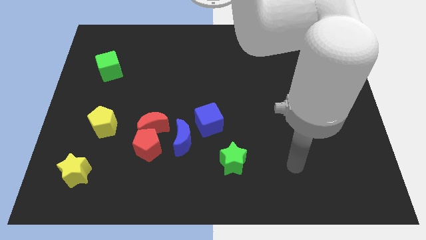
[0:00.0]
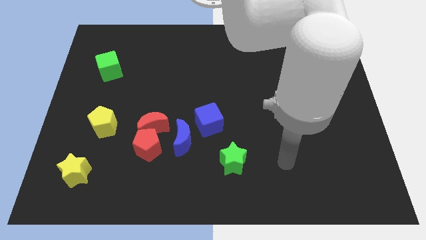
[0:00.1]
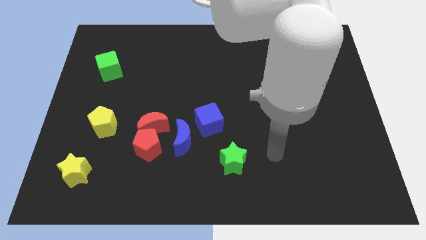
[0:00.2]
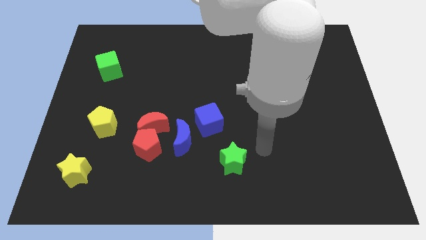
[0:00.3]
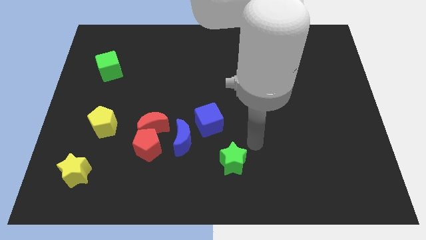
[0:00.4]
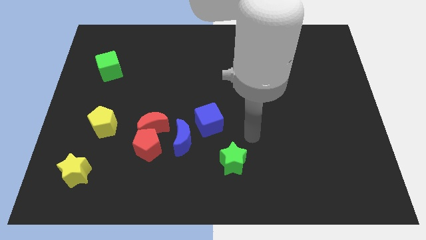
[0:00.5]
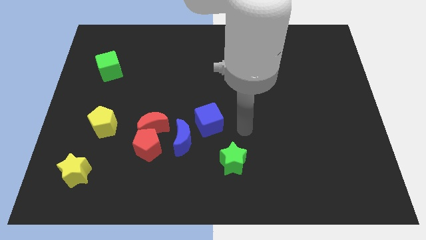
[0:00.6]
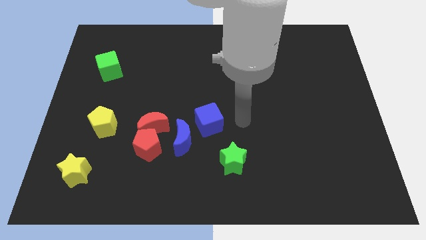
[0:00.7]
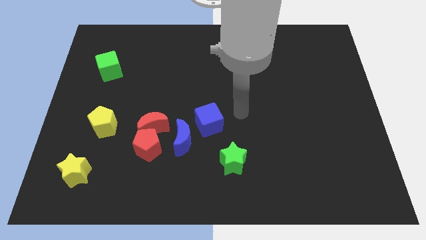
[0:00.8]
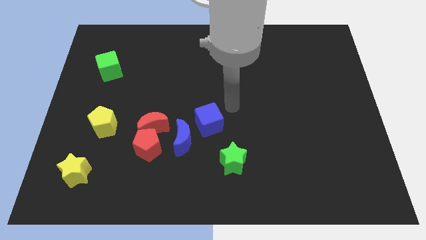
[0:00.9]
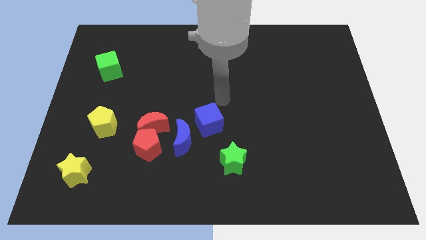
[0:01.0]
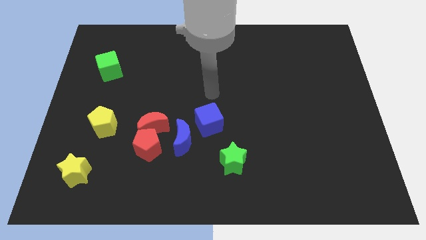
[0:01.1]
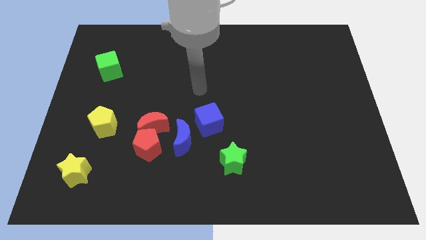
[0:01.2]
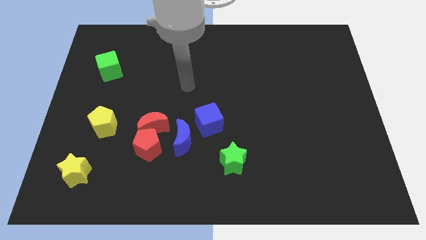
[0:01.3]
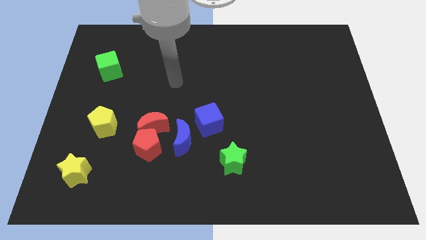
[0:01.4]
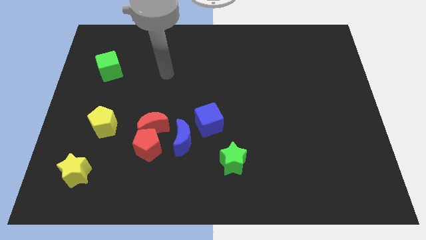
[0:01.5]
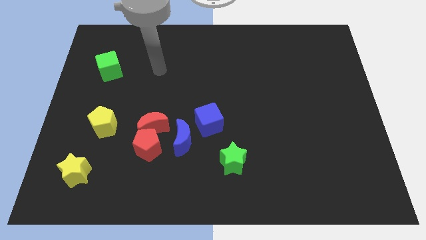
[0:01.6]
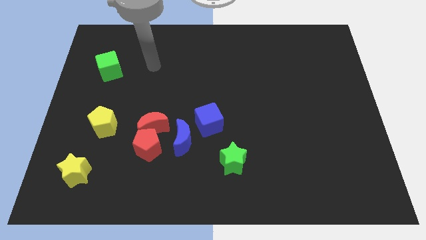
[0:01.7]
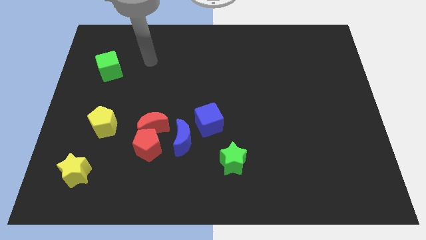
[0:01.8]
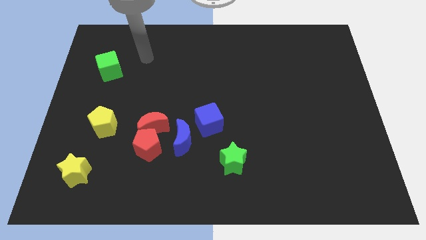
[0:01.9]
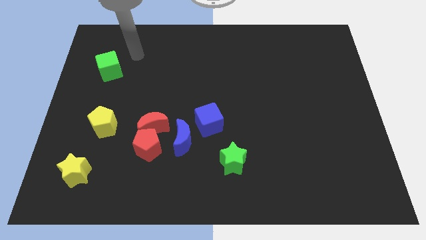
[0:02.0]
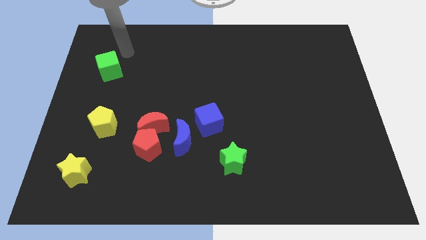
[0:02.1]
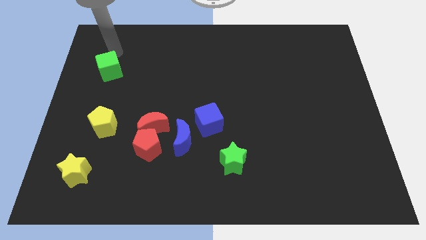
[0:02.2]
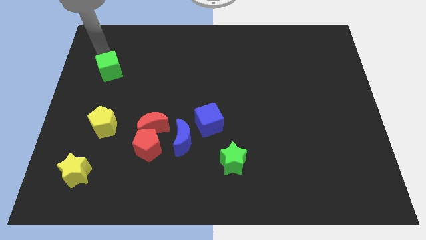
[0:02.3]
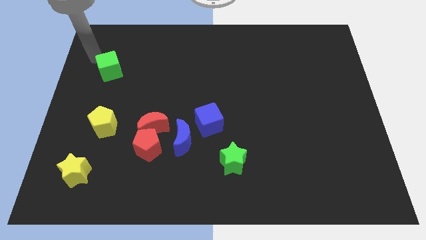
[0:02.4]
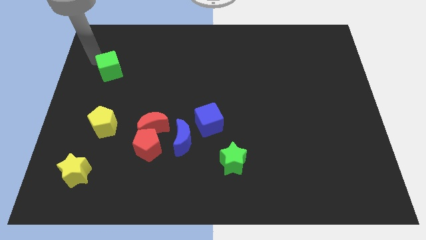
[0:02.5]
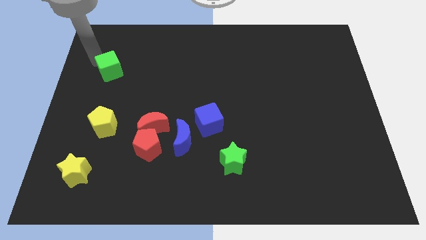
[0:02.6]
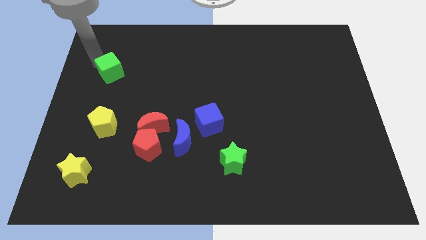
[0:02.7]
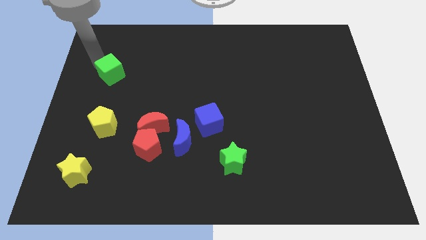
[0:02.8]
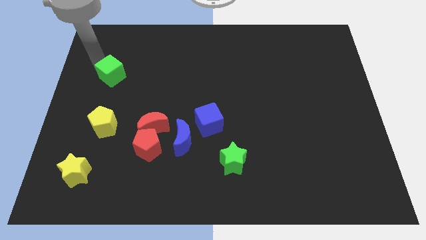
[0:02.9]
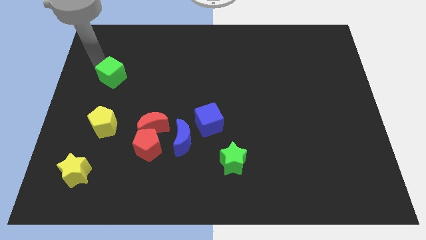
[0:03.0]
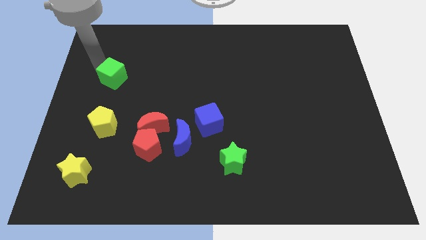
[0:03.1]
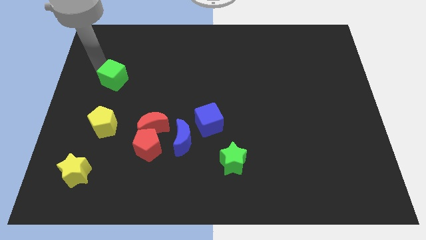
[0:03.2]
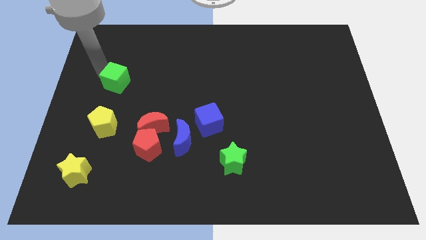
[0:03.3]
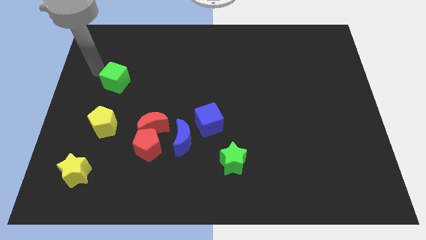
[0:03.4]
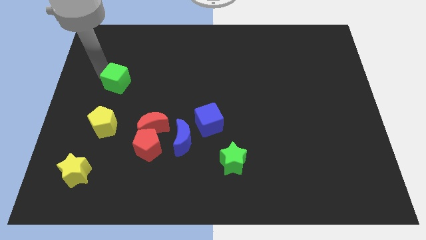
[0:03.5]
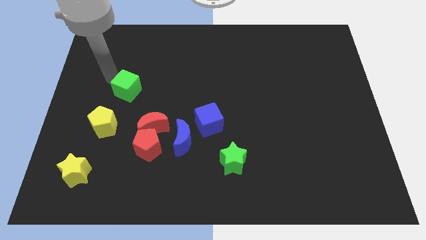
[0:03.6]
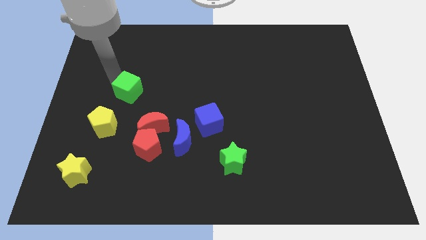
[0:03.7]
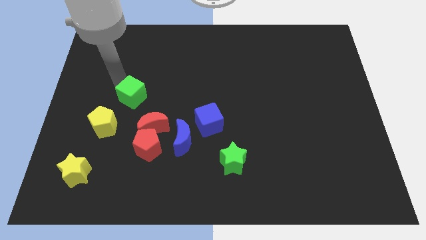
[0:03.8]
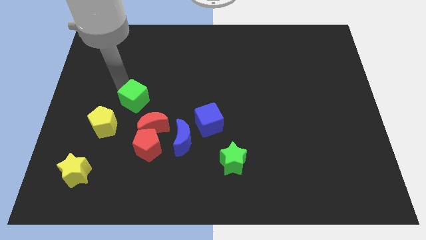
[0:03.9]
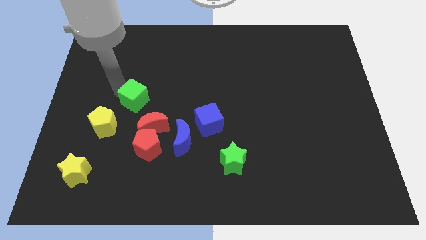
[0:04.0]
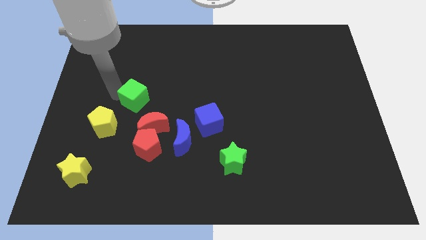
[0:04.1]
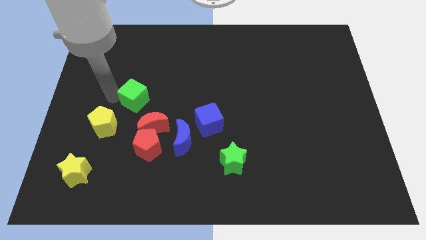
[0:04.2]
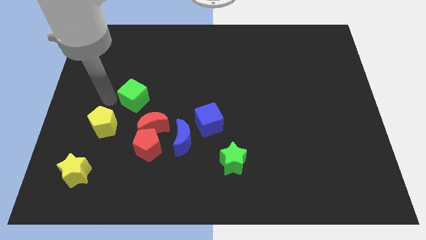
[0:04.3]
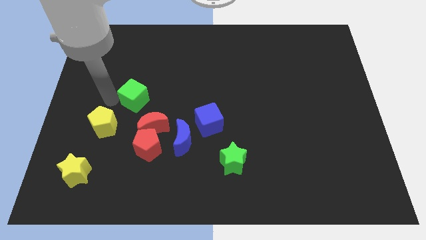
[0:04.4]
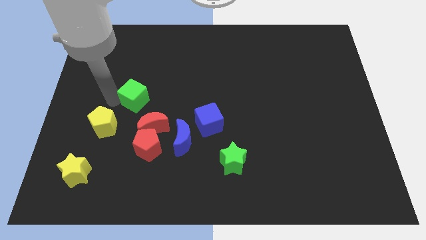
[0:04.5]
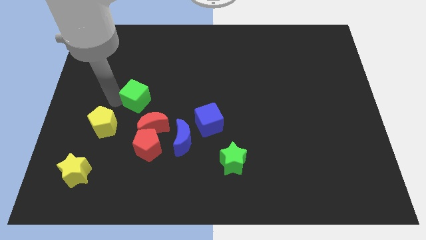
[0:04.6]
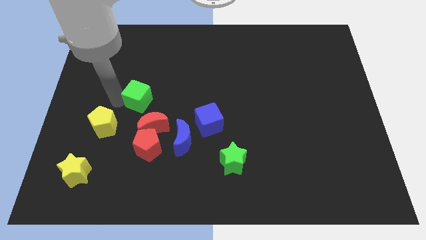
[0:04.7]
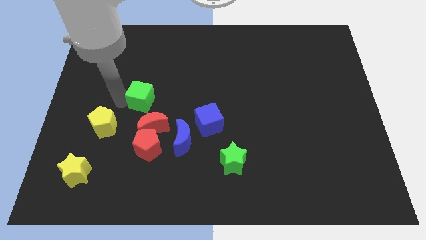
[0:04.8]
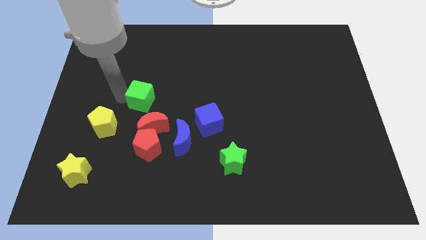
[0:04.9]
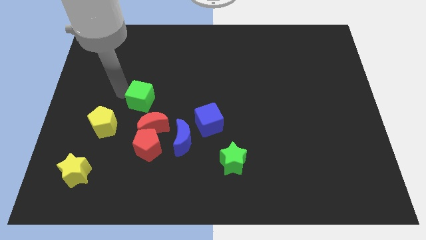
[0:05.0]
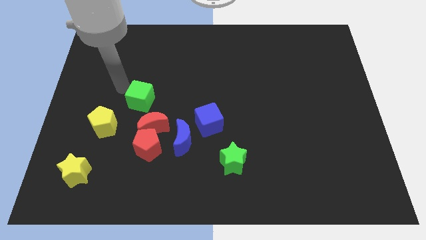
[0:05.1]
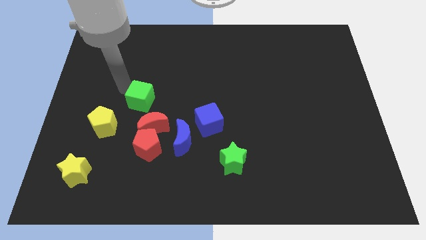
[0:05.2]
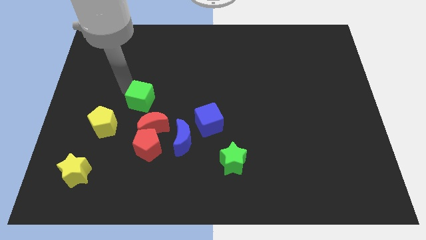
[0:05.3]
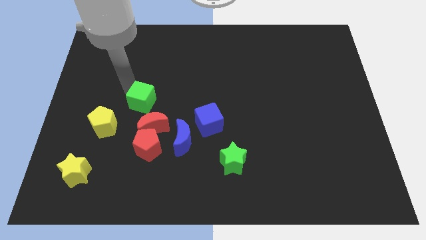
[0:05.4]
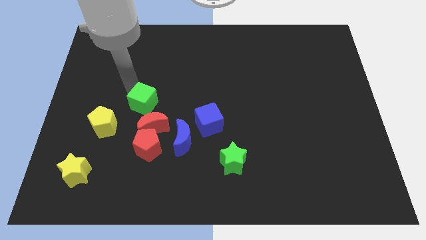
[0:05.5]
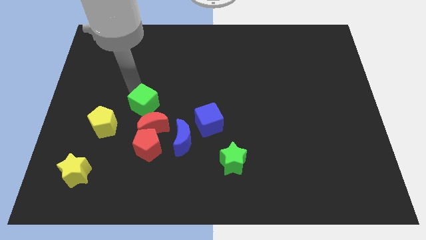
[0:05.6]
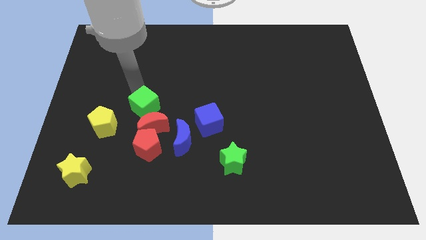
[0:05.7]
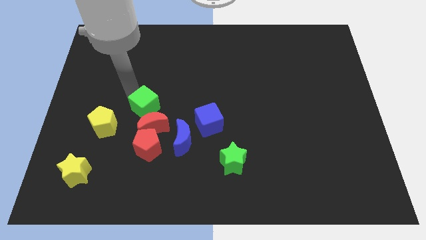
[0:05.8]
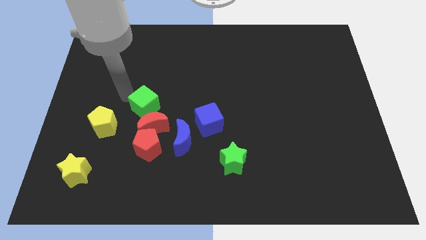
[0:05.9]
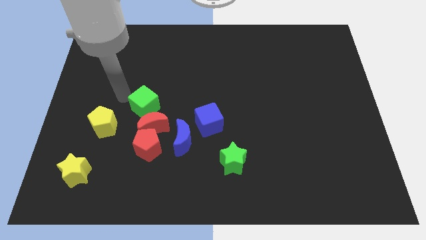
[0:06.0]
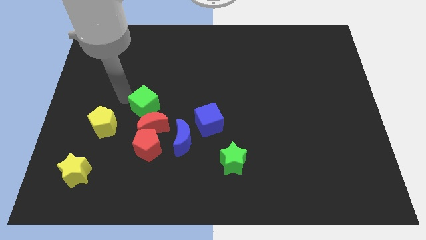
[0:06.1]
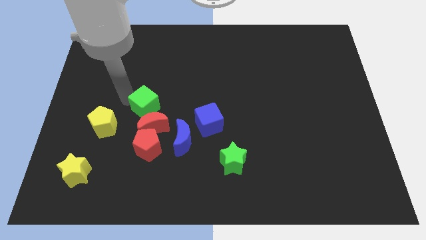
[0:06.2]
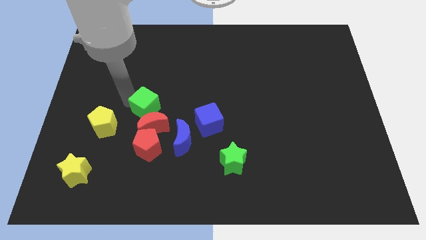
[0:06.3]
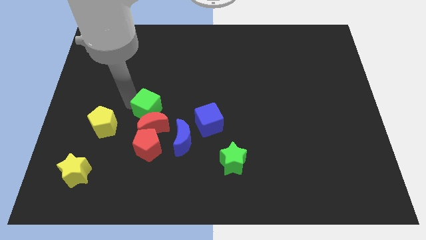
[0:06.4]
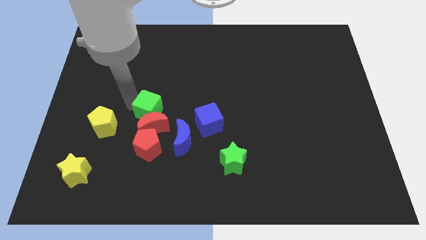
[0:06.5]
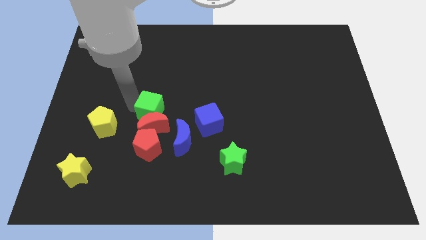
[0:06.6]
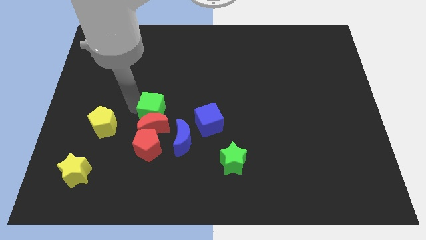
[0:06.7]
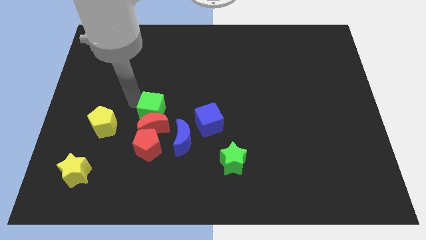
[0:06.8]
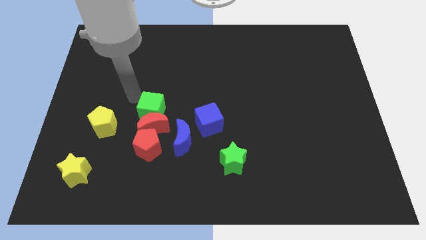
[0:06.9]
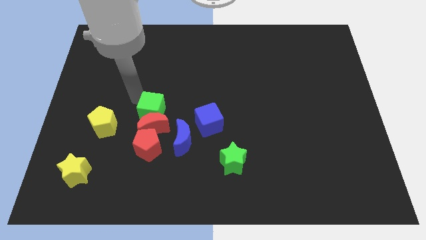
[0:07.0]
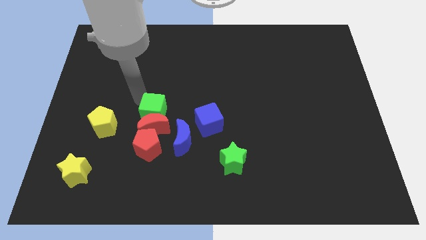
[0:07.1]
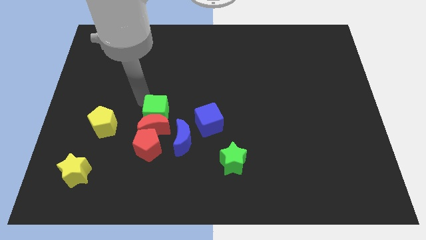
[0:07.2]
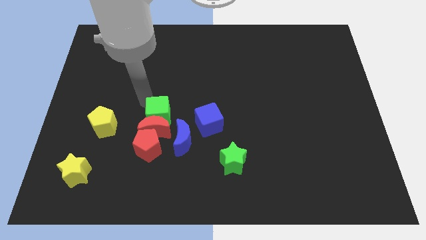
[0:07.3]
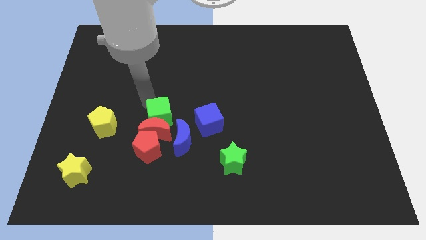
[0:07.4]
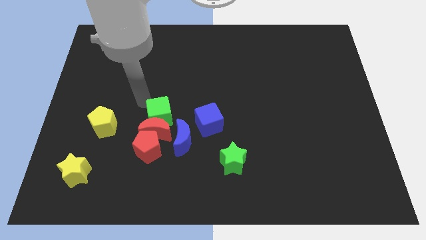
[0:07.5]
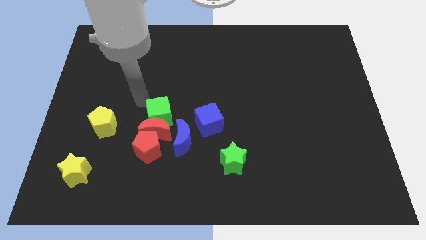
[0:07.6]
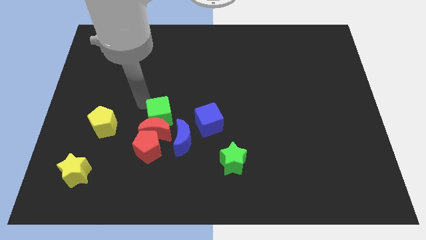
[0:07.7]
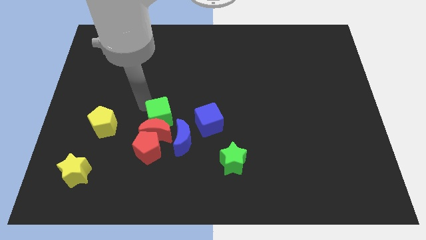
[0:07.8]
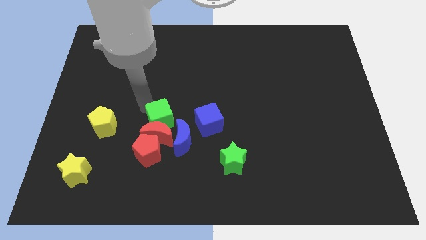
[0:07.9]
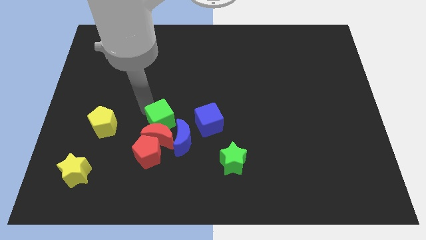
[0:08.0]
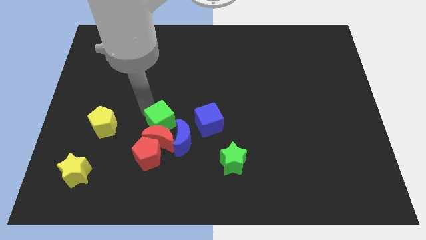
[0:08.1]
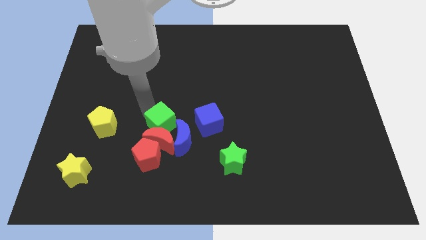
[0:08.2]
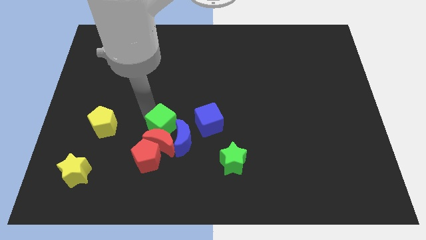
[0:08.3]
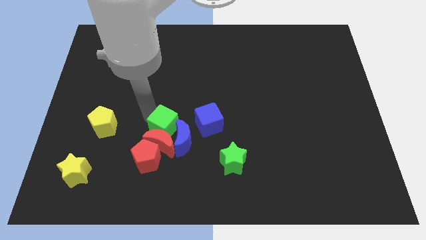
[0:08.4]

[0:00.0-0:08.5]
slide the green cube towards the blue moon
